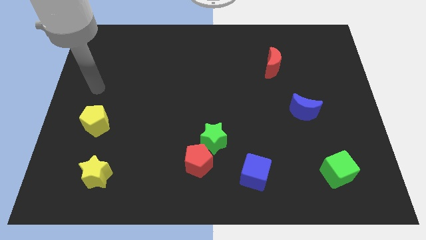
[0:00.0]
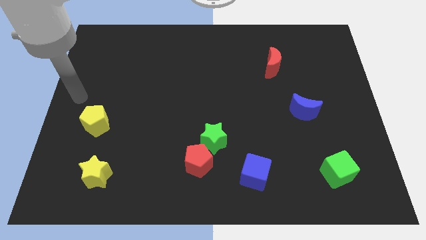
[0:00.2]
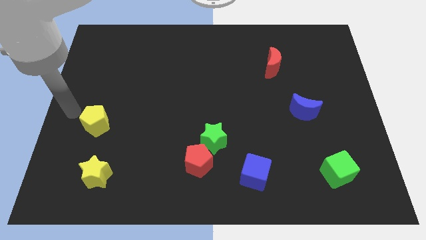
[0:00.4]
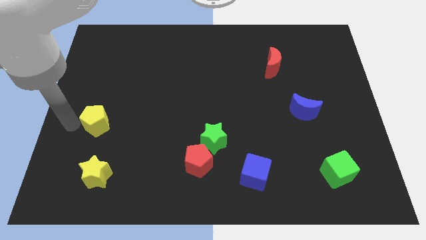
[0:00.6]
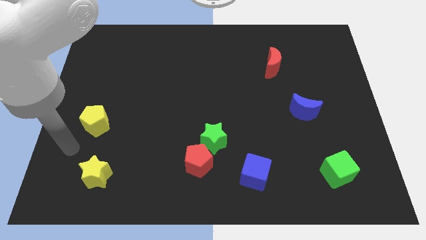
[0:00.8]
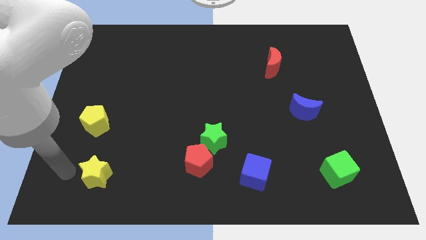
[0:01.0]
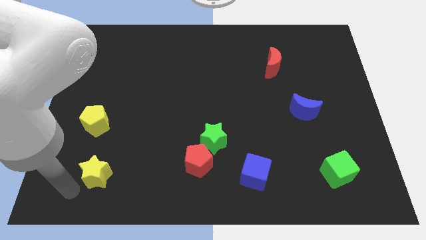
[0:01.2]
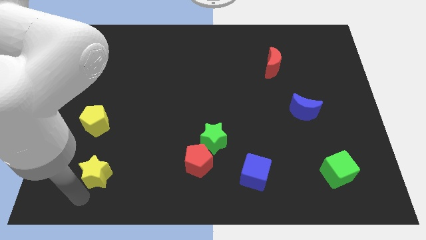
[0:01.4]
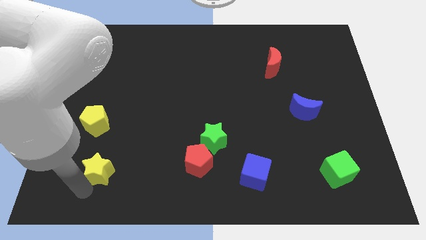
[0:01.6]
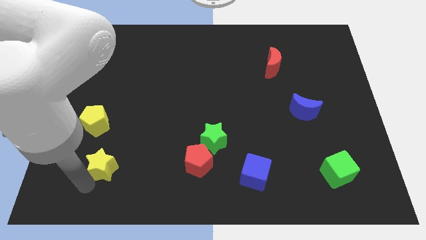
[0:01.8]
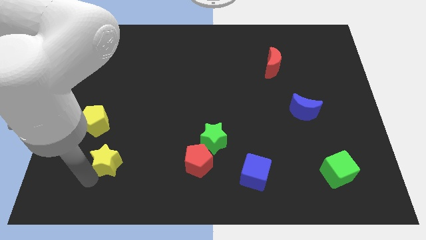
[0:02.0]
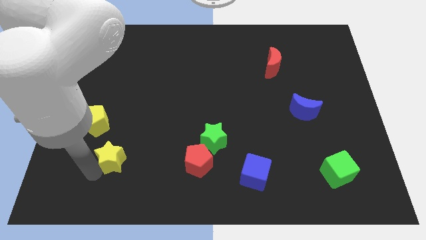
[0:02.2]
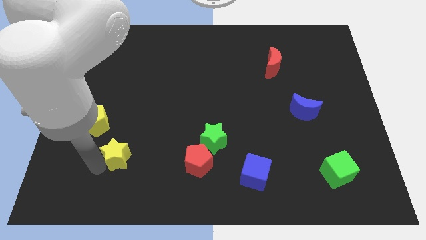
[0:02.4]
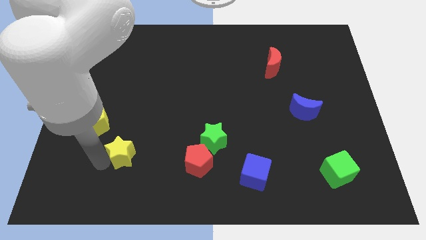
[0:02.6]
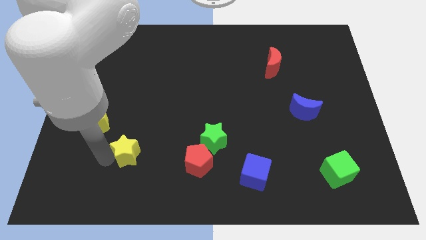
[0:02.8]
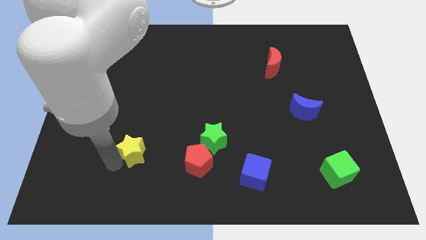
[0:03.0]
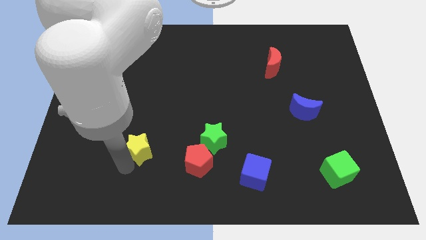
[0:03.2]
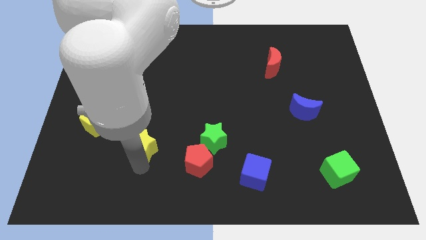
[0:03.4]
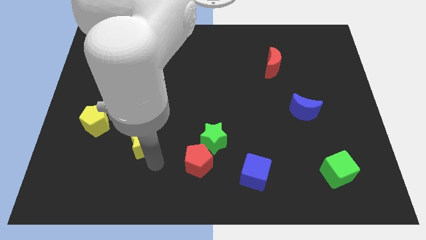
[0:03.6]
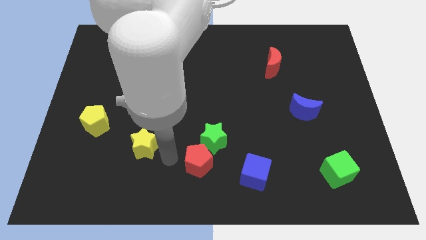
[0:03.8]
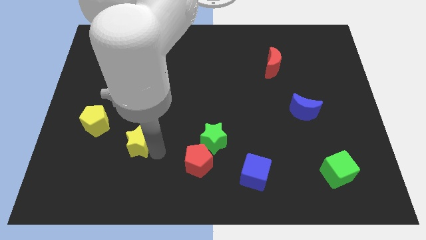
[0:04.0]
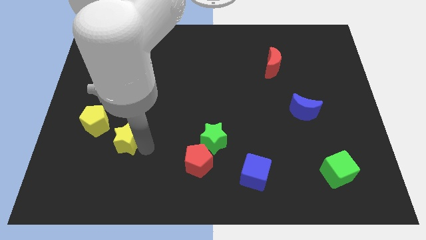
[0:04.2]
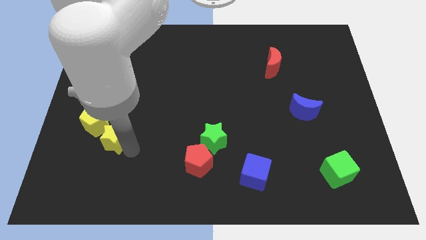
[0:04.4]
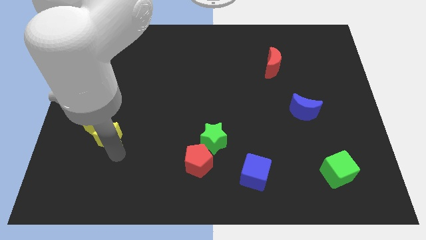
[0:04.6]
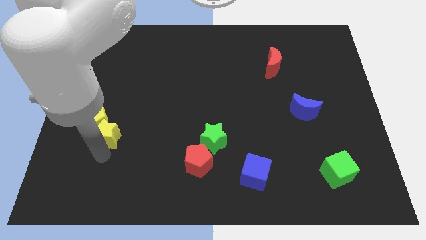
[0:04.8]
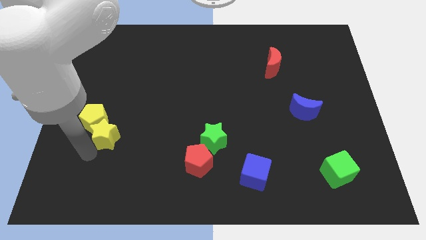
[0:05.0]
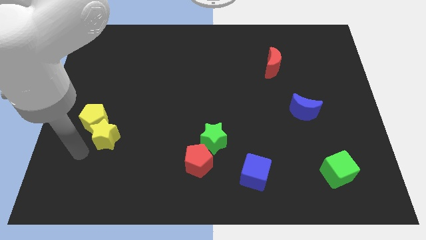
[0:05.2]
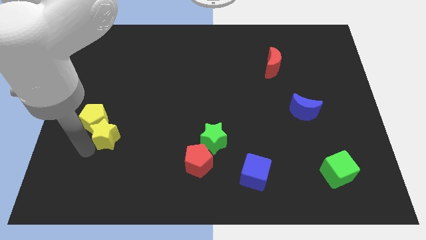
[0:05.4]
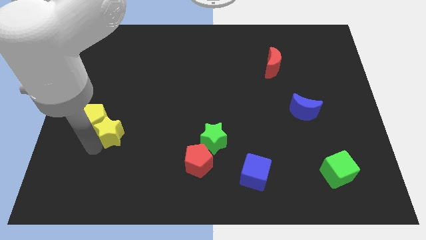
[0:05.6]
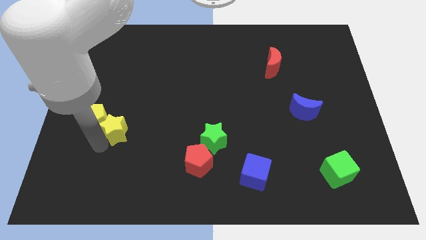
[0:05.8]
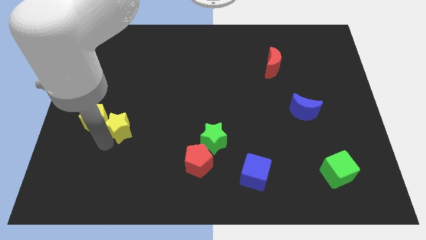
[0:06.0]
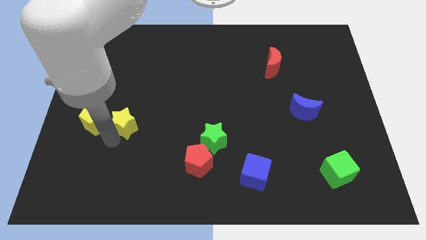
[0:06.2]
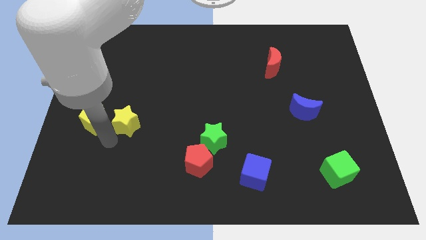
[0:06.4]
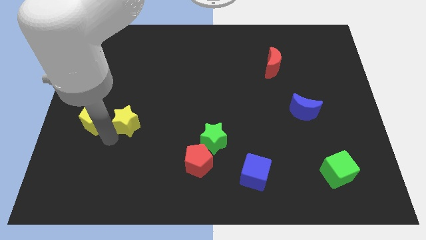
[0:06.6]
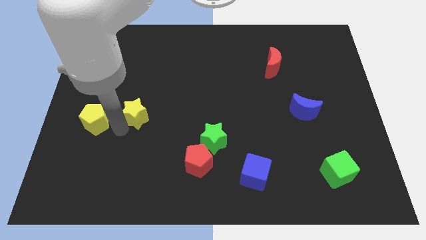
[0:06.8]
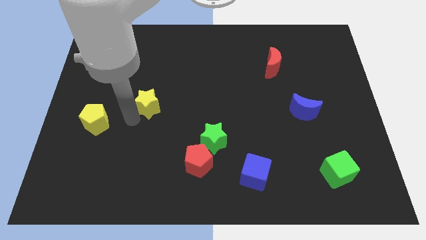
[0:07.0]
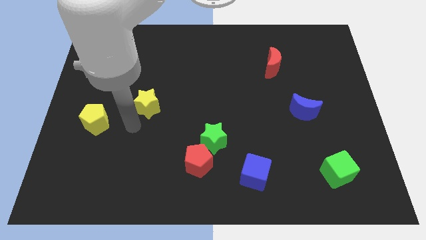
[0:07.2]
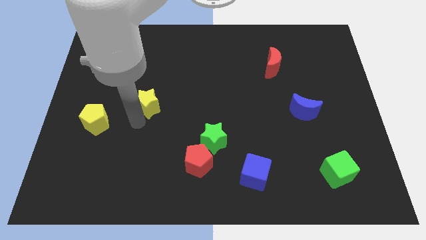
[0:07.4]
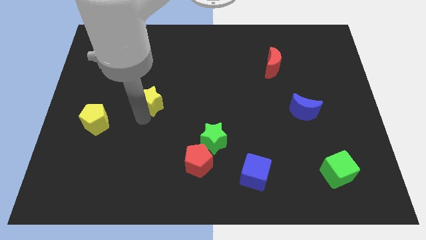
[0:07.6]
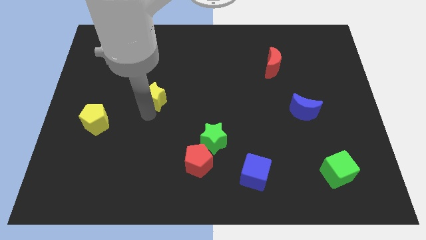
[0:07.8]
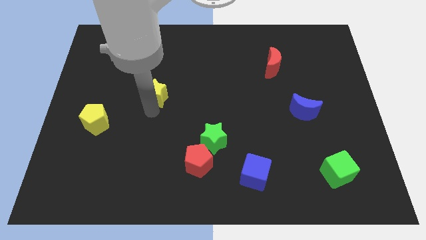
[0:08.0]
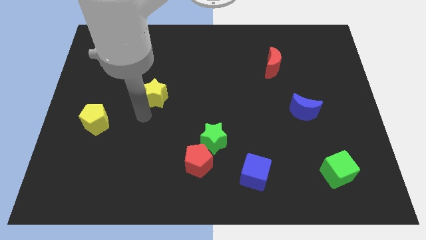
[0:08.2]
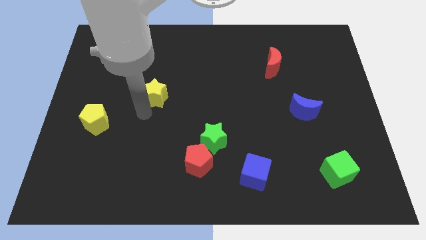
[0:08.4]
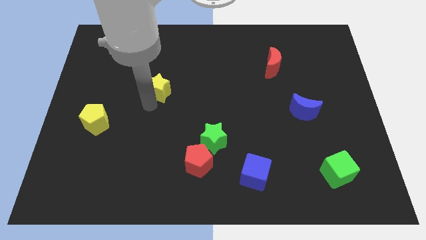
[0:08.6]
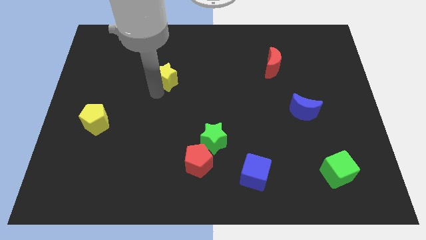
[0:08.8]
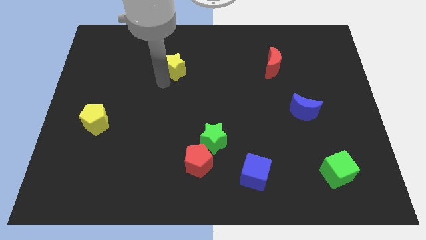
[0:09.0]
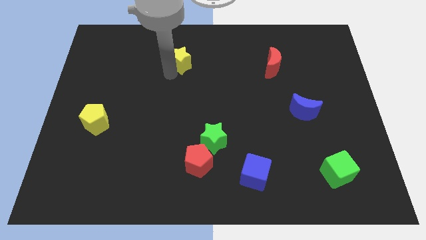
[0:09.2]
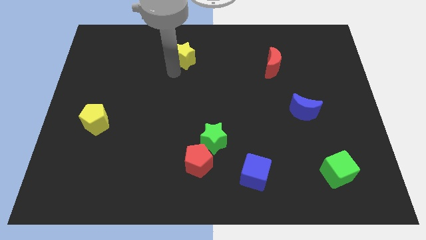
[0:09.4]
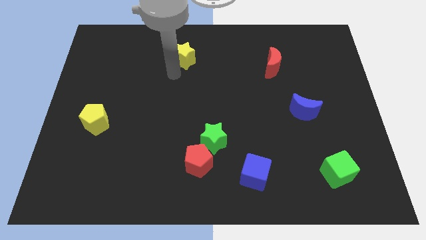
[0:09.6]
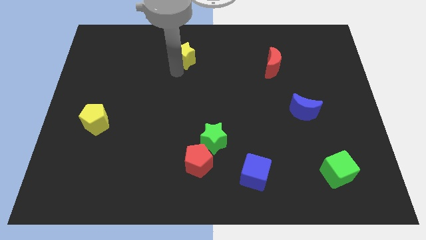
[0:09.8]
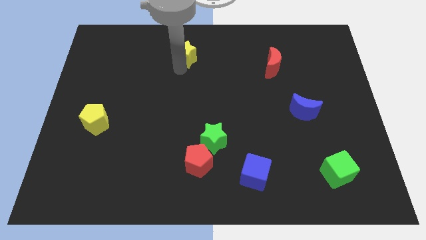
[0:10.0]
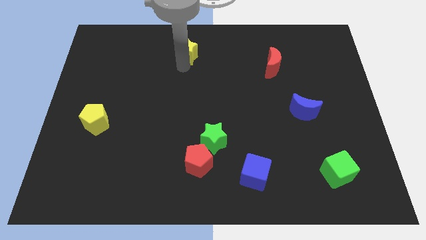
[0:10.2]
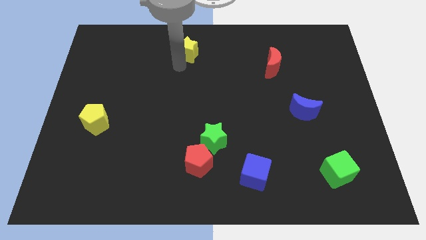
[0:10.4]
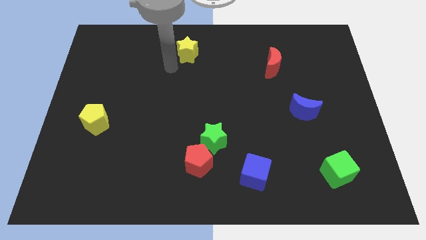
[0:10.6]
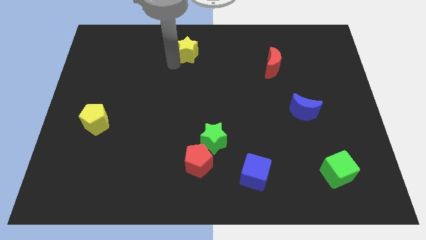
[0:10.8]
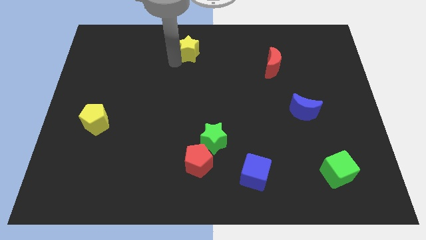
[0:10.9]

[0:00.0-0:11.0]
move the yellow star to the top side

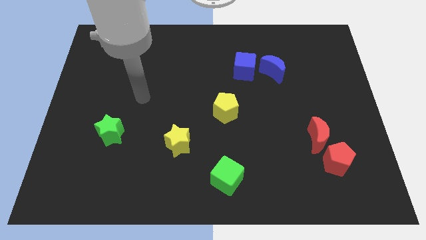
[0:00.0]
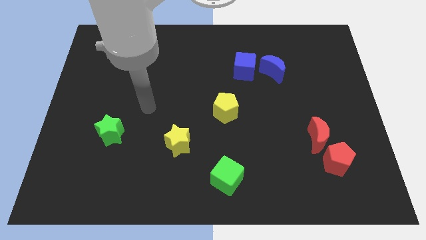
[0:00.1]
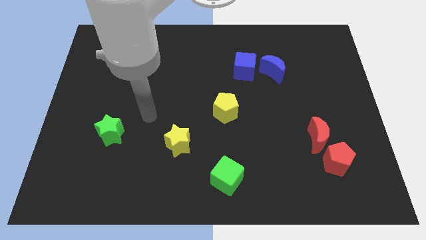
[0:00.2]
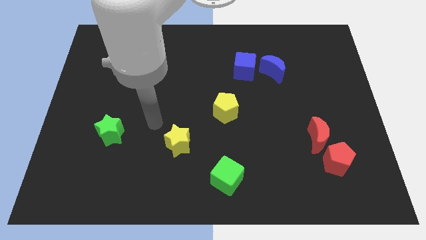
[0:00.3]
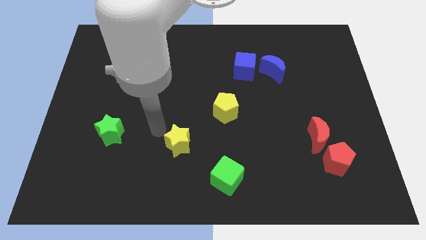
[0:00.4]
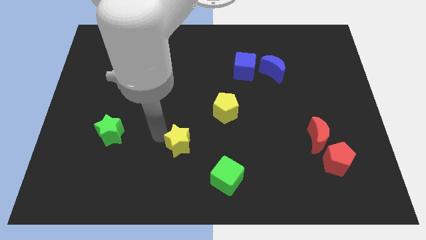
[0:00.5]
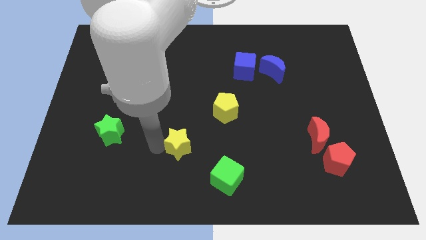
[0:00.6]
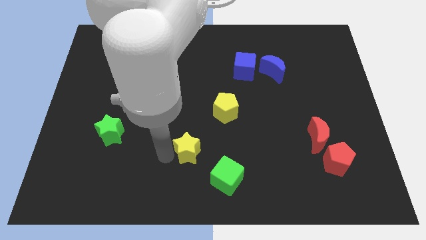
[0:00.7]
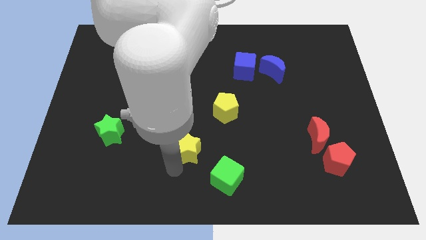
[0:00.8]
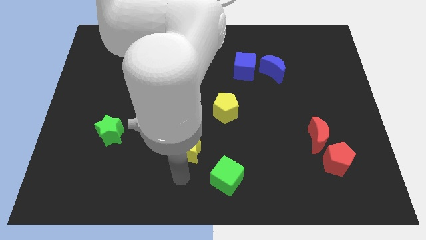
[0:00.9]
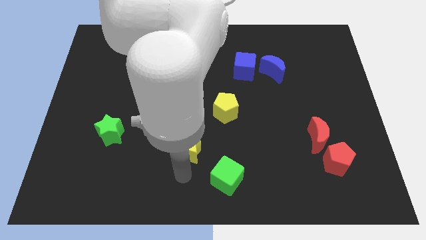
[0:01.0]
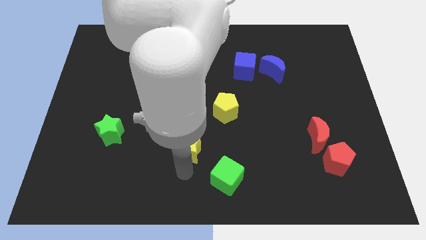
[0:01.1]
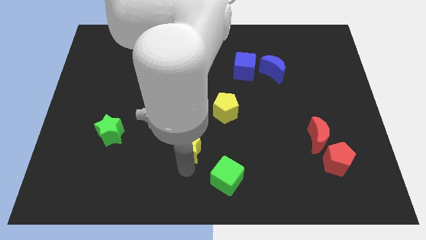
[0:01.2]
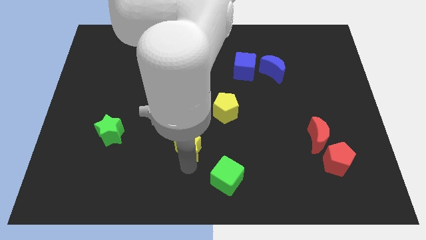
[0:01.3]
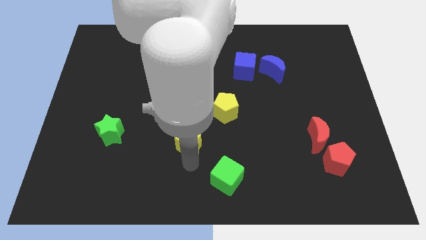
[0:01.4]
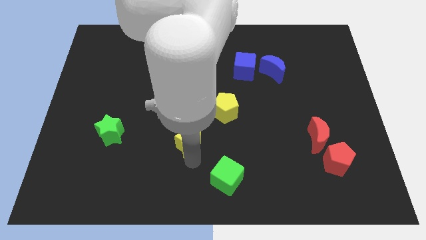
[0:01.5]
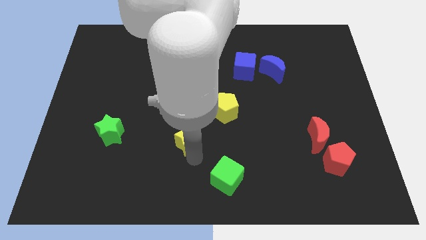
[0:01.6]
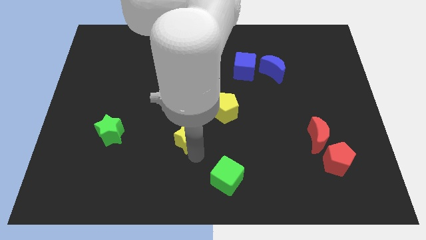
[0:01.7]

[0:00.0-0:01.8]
move the yellow star to the middle
